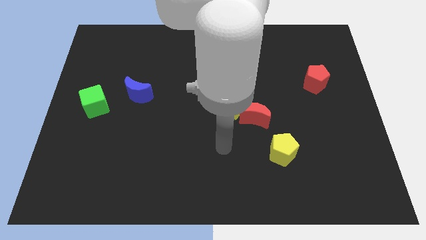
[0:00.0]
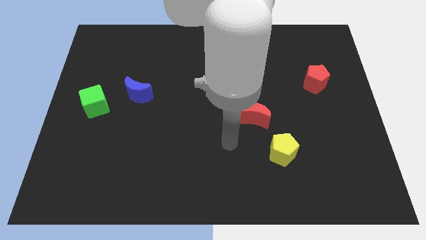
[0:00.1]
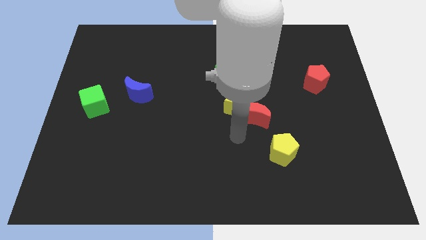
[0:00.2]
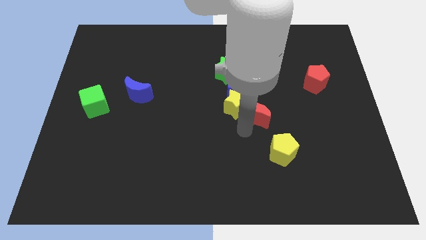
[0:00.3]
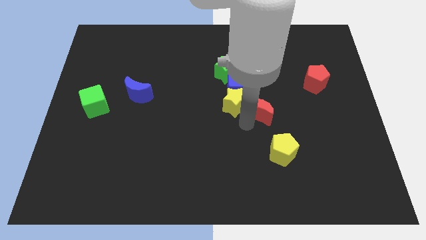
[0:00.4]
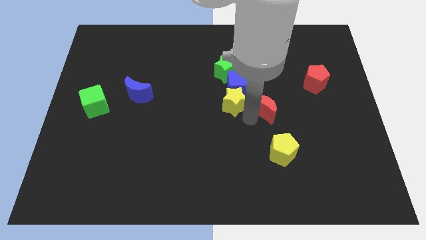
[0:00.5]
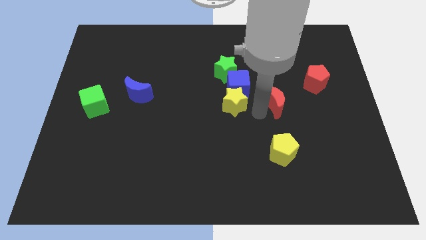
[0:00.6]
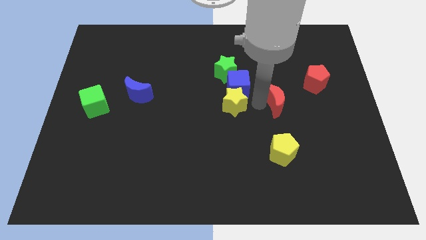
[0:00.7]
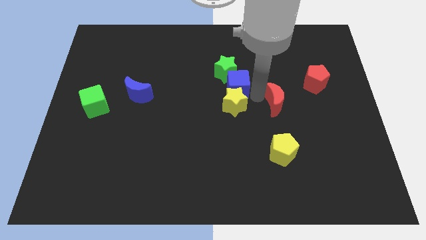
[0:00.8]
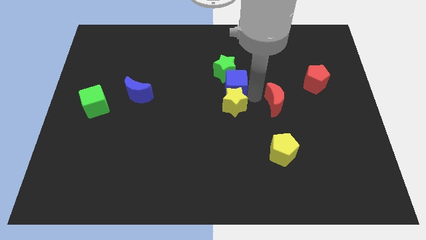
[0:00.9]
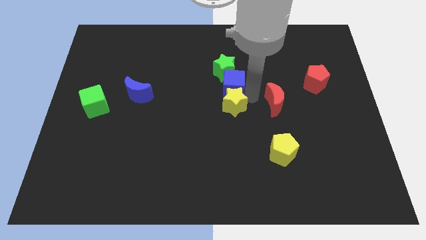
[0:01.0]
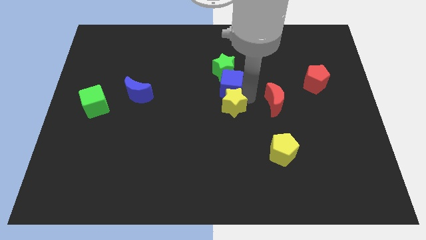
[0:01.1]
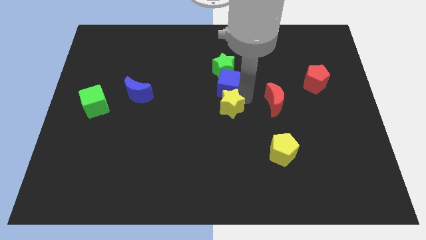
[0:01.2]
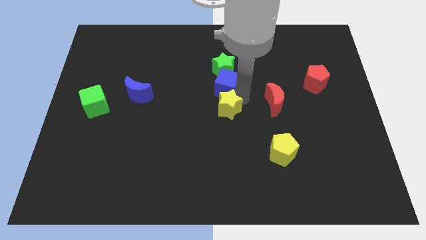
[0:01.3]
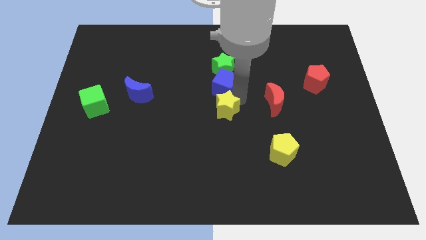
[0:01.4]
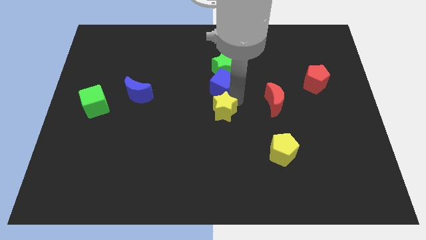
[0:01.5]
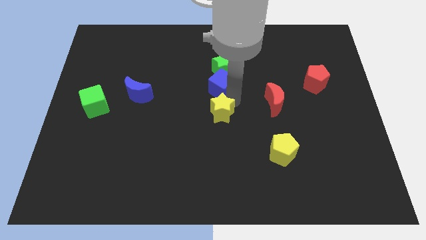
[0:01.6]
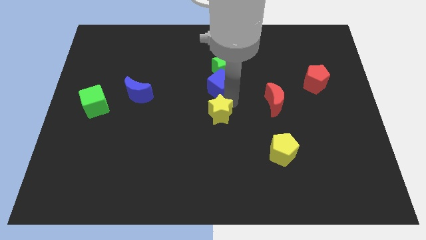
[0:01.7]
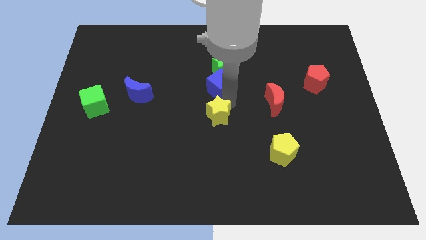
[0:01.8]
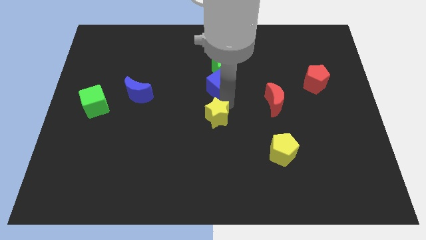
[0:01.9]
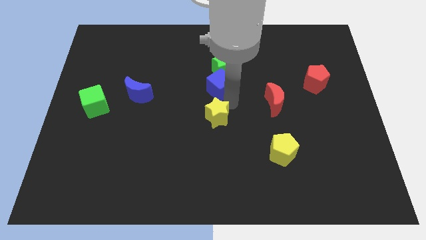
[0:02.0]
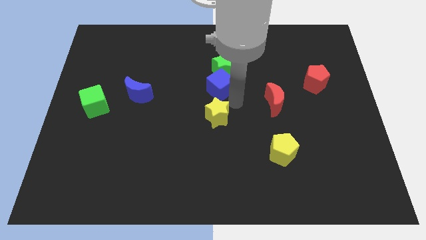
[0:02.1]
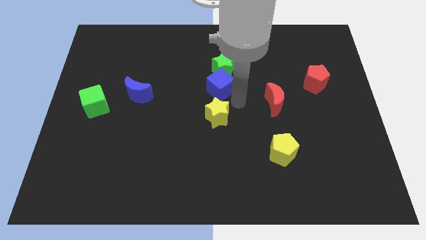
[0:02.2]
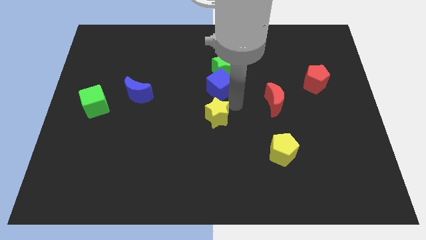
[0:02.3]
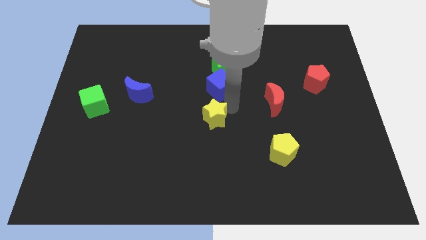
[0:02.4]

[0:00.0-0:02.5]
separate the yellow star from the red moon and blue cube

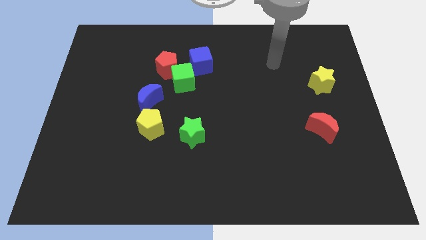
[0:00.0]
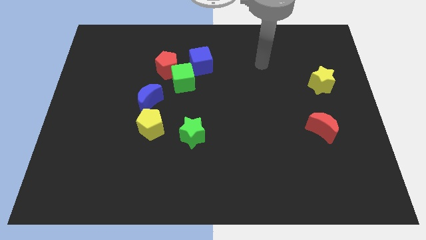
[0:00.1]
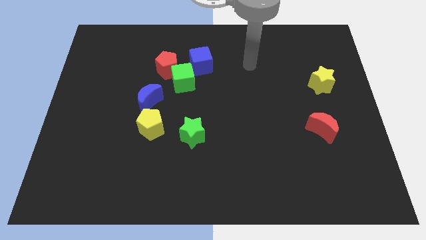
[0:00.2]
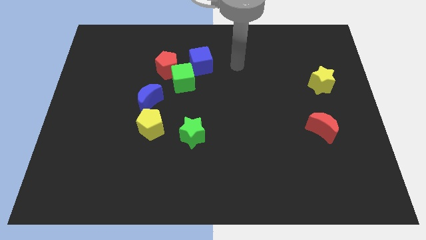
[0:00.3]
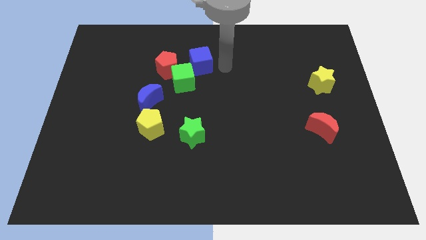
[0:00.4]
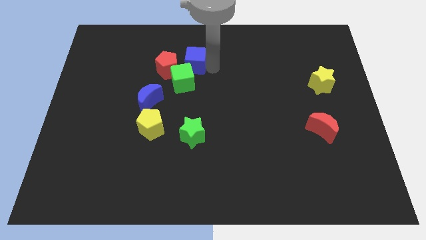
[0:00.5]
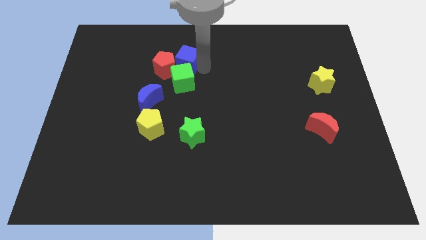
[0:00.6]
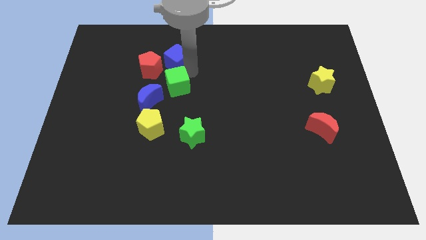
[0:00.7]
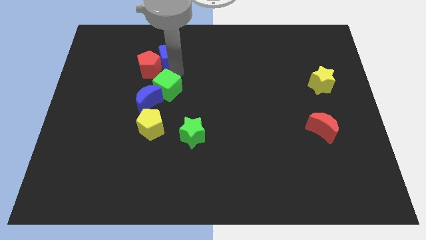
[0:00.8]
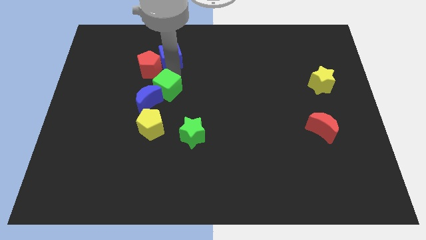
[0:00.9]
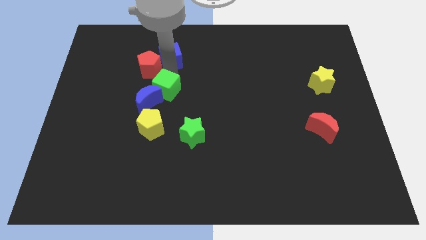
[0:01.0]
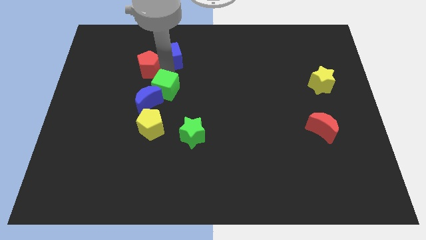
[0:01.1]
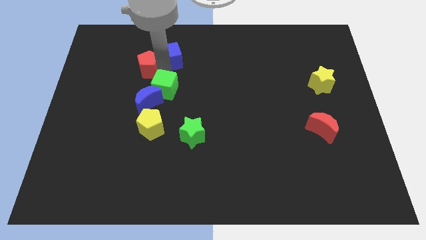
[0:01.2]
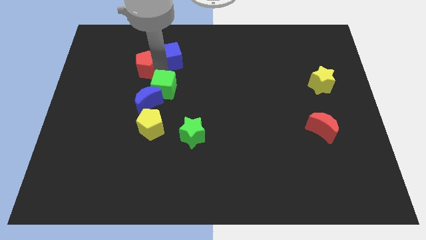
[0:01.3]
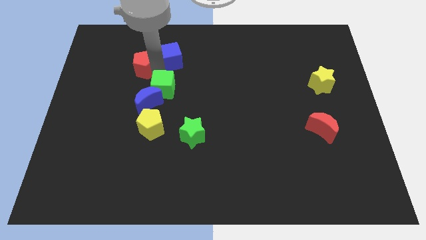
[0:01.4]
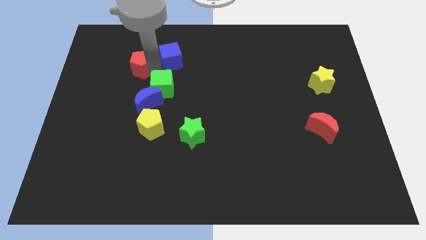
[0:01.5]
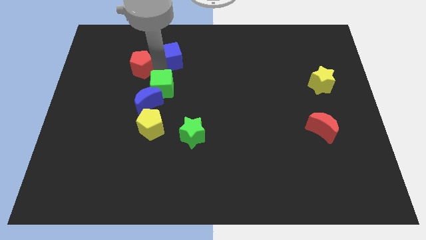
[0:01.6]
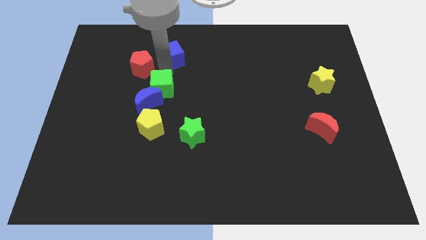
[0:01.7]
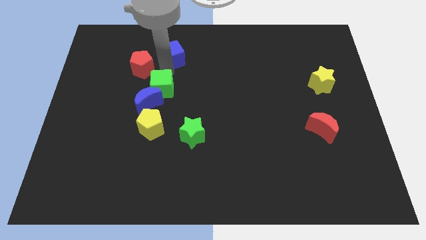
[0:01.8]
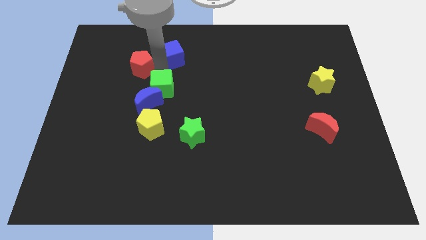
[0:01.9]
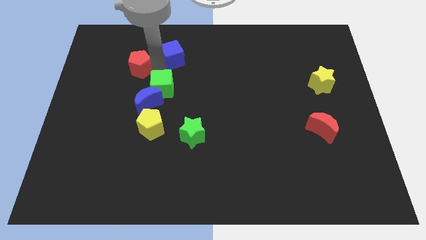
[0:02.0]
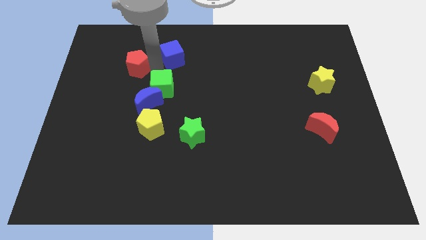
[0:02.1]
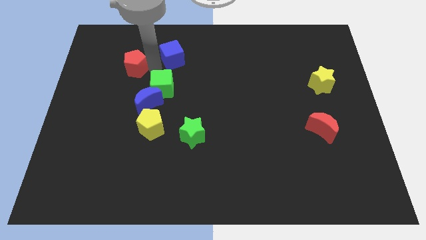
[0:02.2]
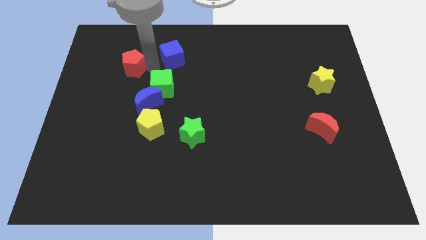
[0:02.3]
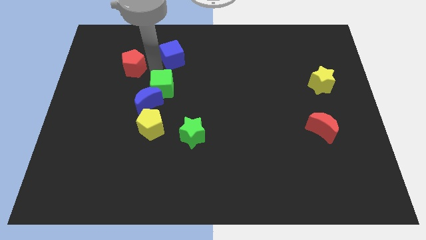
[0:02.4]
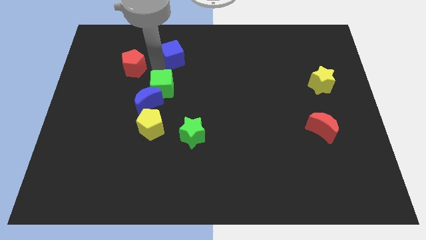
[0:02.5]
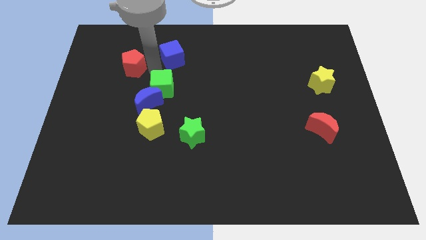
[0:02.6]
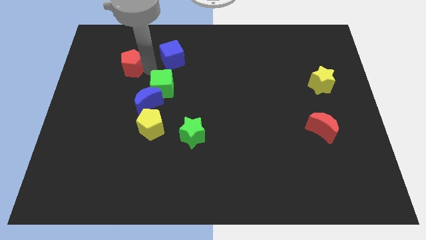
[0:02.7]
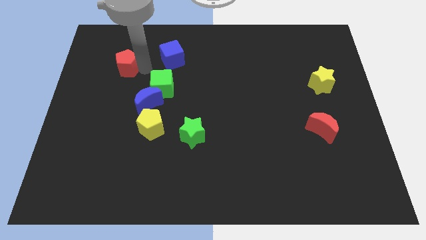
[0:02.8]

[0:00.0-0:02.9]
separate the red pentagon from the green cube and blue cube

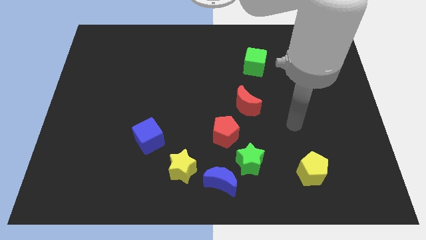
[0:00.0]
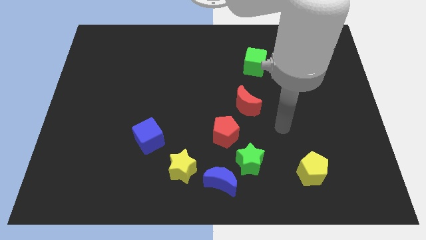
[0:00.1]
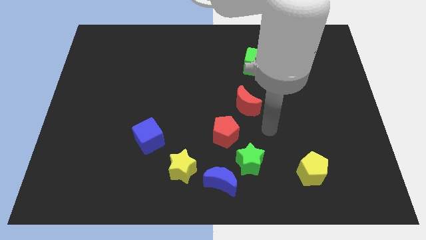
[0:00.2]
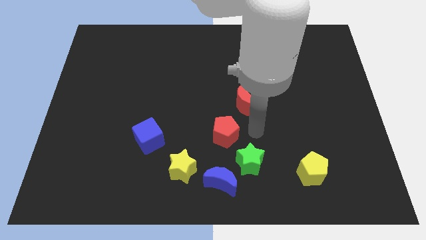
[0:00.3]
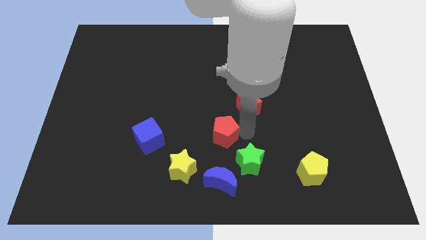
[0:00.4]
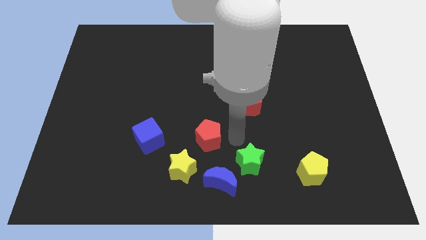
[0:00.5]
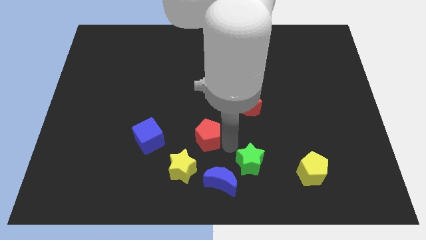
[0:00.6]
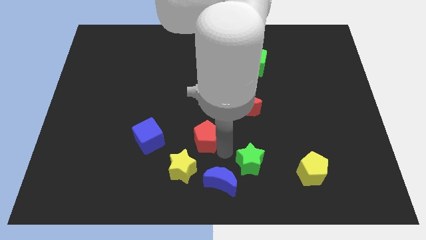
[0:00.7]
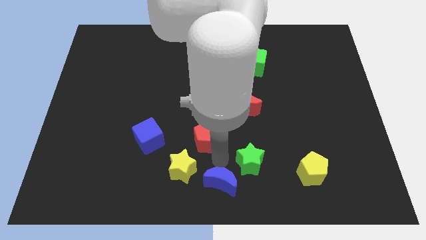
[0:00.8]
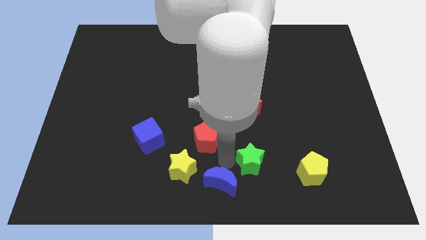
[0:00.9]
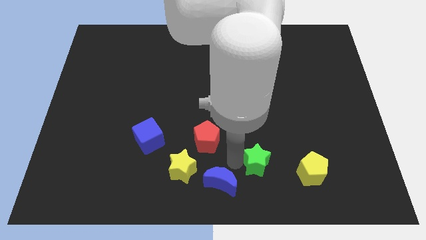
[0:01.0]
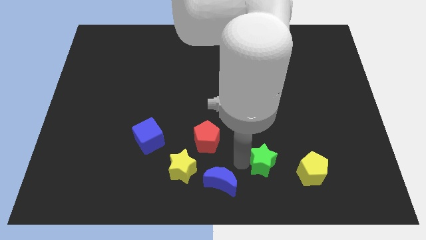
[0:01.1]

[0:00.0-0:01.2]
separate the green star from the blue moon and red pentagon

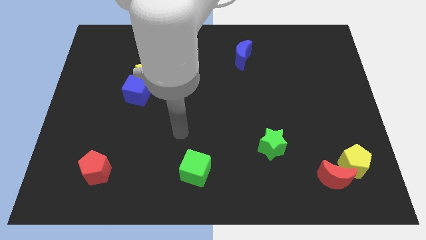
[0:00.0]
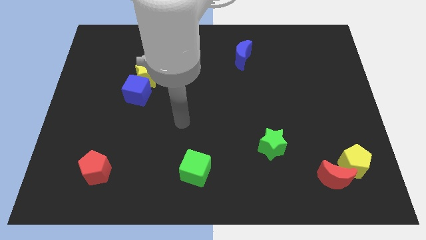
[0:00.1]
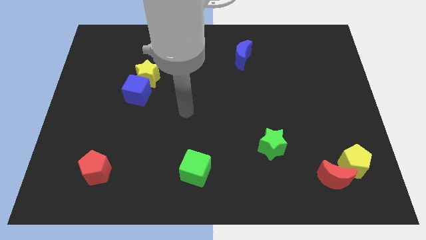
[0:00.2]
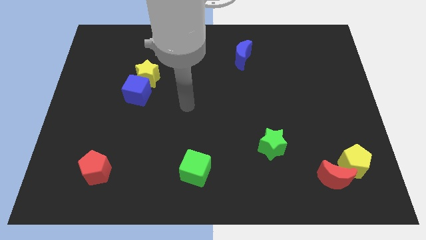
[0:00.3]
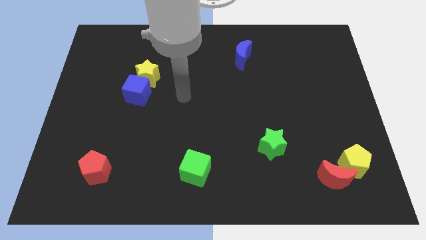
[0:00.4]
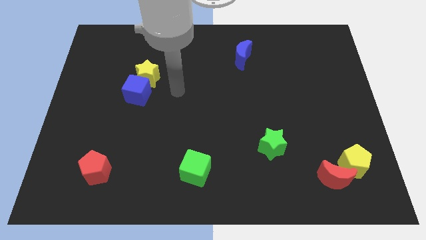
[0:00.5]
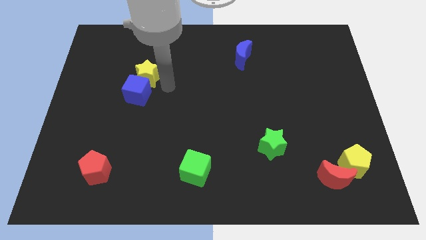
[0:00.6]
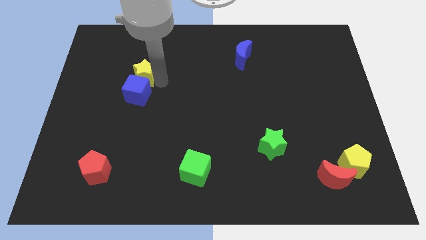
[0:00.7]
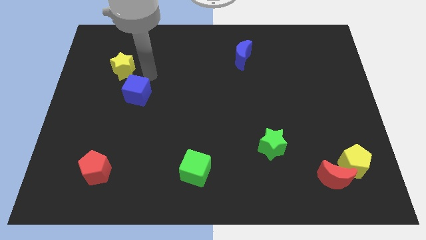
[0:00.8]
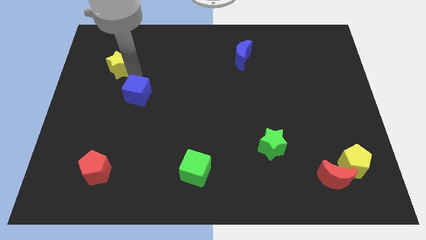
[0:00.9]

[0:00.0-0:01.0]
pull the blue cube apart from the yellow star

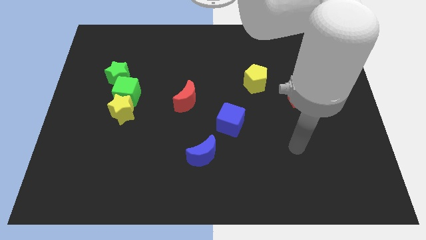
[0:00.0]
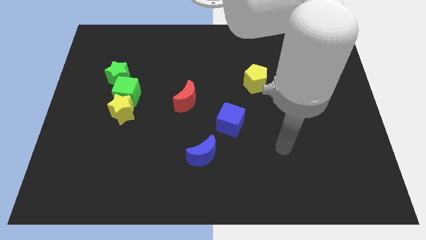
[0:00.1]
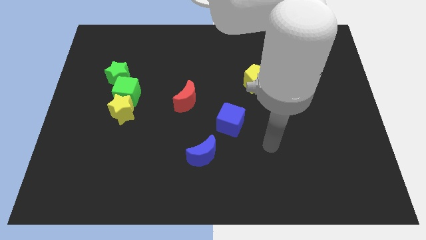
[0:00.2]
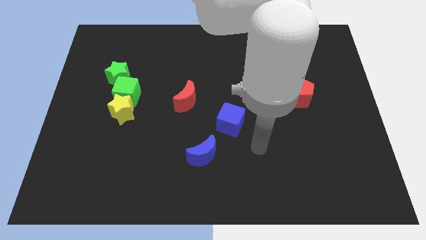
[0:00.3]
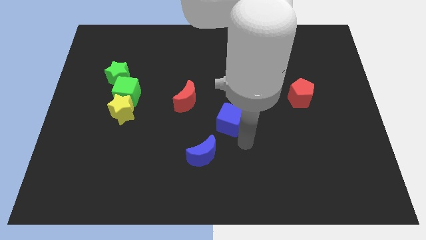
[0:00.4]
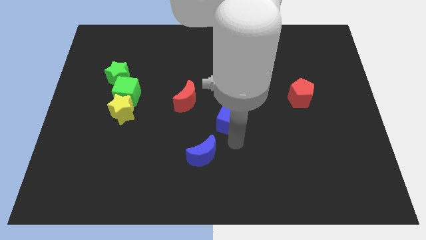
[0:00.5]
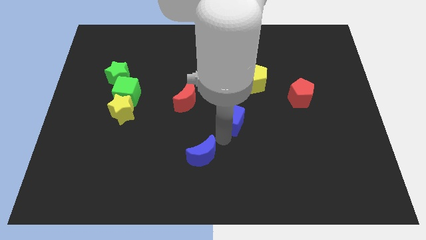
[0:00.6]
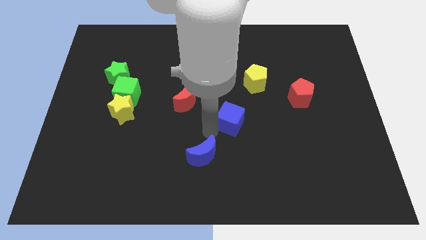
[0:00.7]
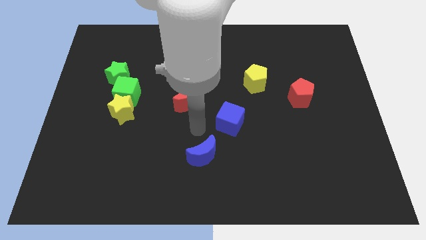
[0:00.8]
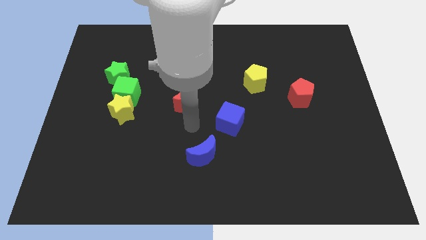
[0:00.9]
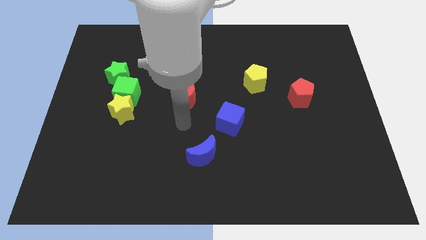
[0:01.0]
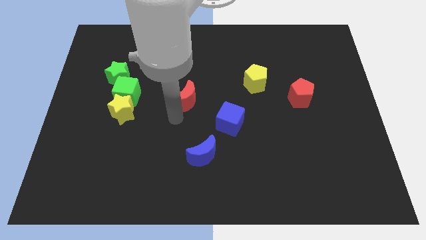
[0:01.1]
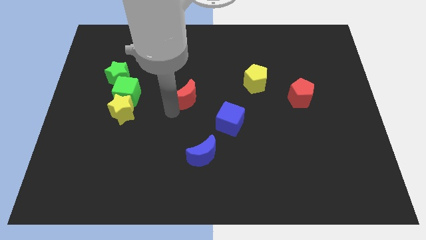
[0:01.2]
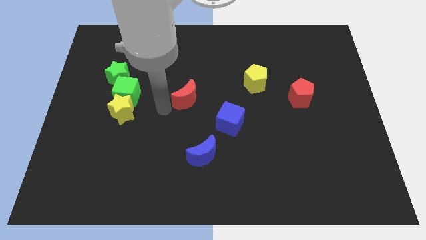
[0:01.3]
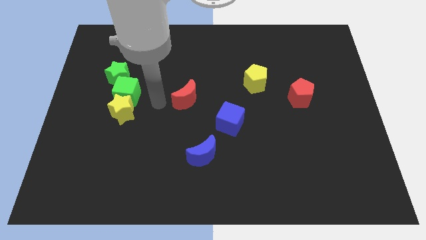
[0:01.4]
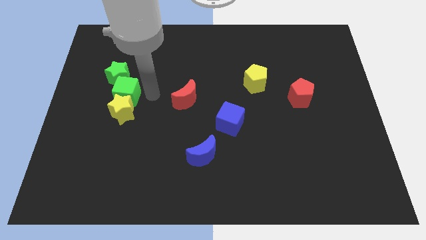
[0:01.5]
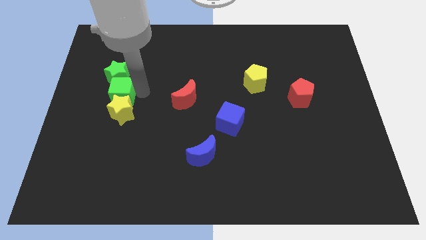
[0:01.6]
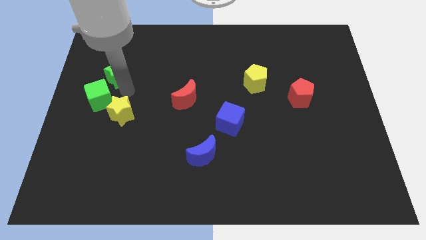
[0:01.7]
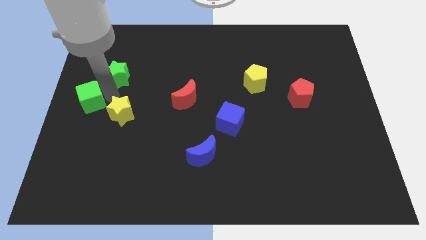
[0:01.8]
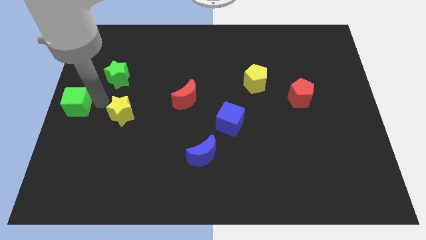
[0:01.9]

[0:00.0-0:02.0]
separate the yellow star from the green cube
